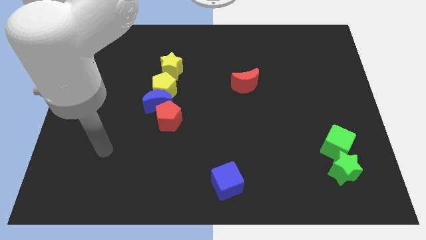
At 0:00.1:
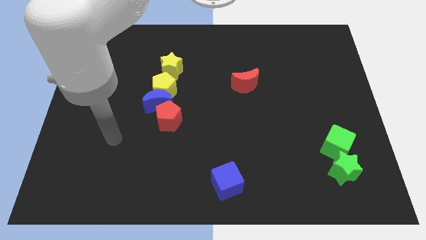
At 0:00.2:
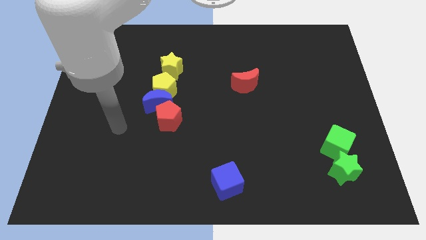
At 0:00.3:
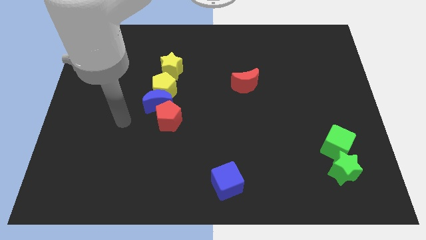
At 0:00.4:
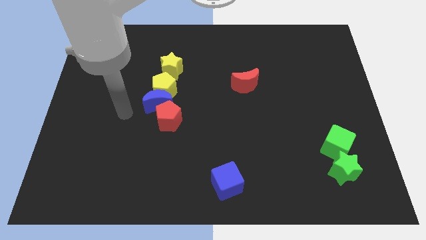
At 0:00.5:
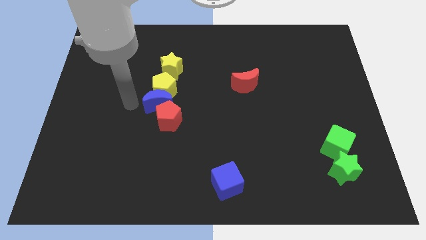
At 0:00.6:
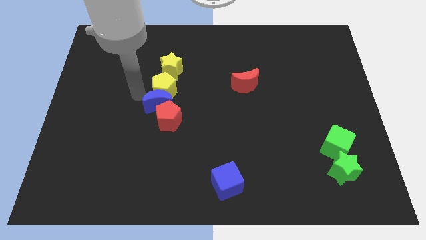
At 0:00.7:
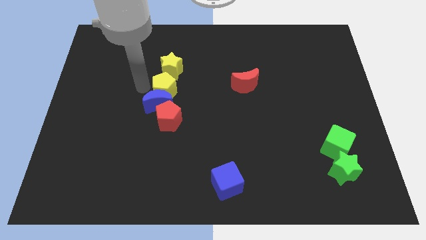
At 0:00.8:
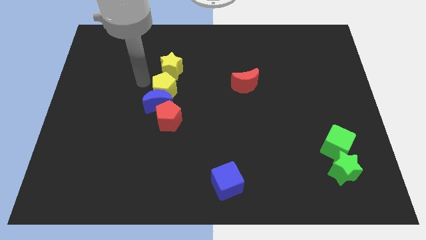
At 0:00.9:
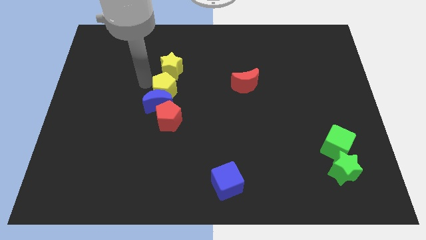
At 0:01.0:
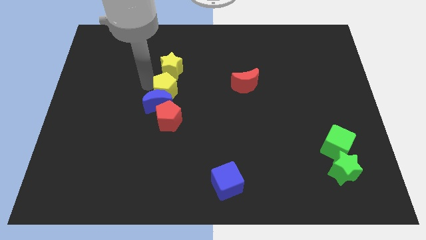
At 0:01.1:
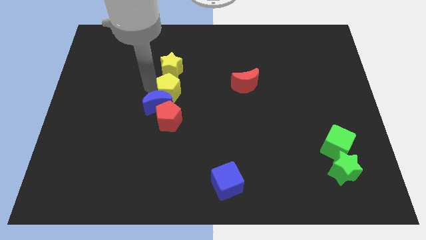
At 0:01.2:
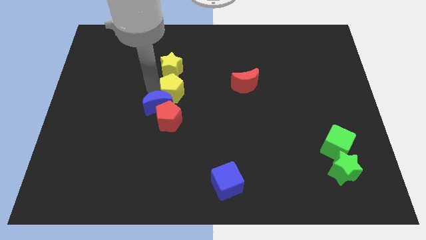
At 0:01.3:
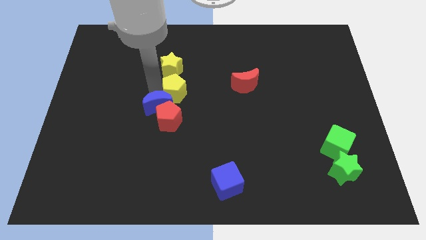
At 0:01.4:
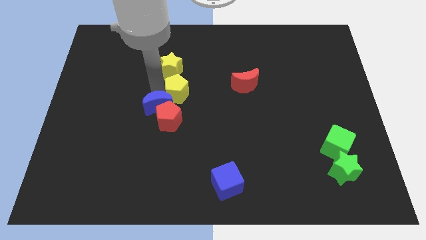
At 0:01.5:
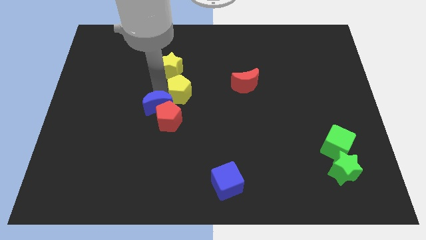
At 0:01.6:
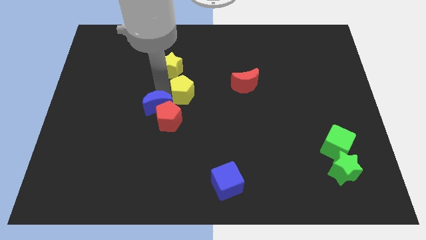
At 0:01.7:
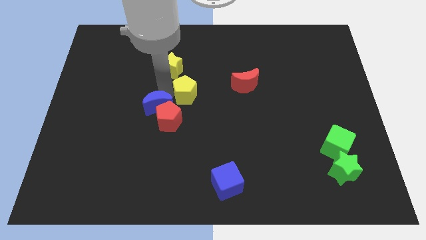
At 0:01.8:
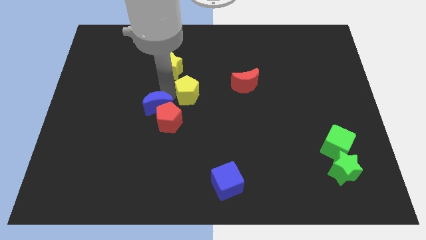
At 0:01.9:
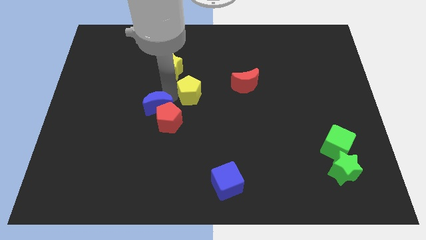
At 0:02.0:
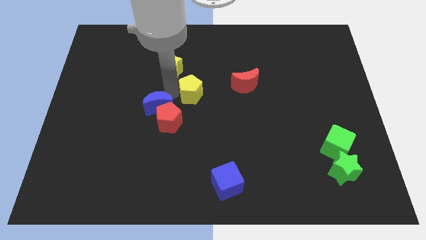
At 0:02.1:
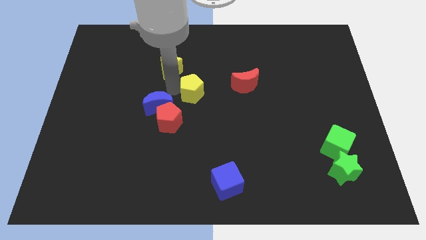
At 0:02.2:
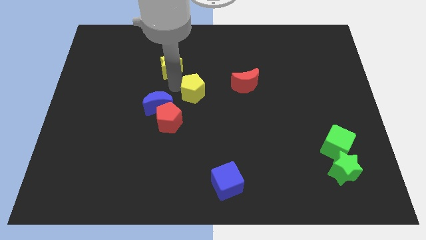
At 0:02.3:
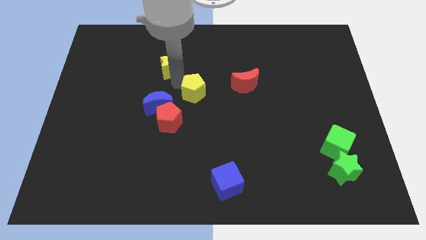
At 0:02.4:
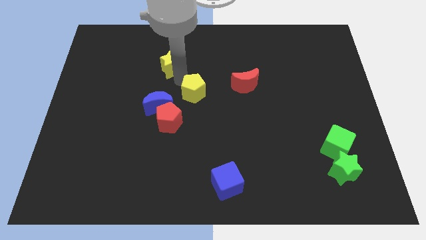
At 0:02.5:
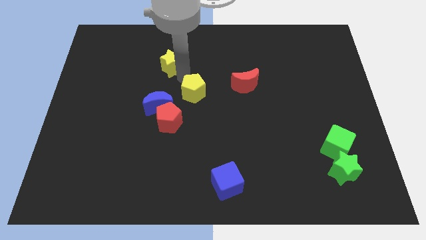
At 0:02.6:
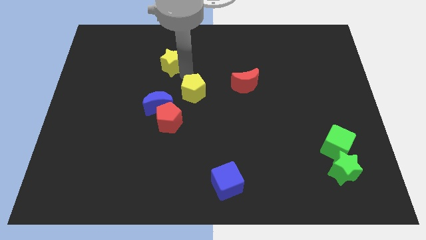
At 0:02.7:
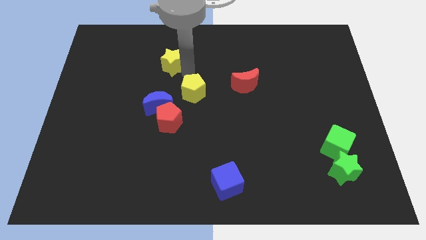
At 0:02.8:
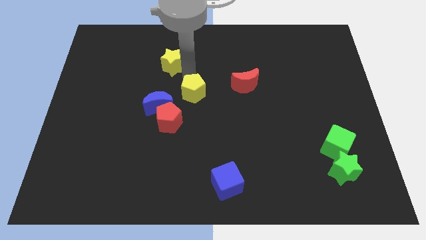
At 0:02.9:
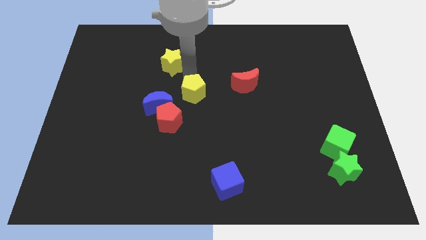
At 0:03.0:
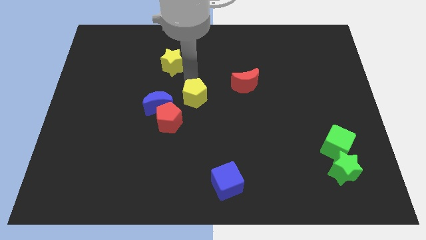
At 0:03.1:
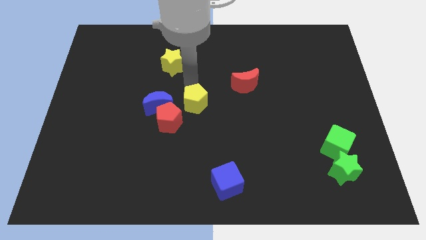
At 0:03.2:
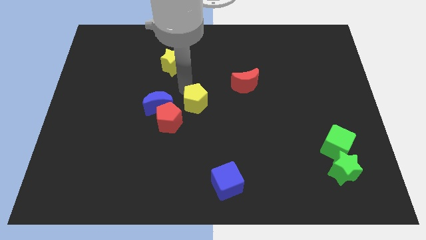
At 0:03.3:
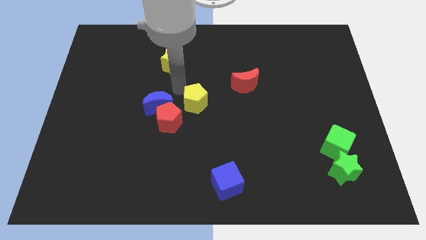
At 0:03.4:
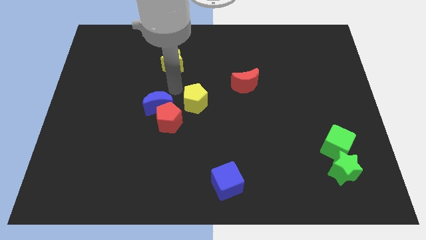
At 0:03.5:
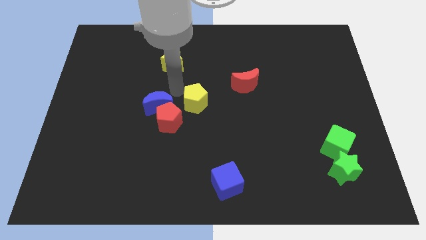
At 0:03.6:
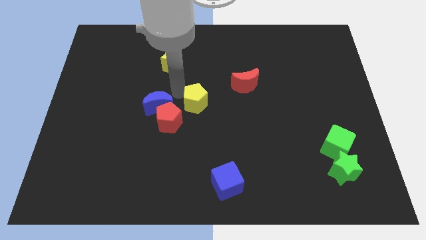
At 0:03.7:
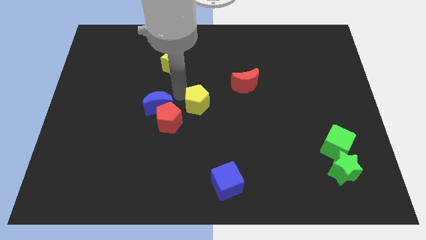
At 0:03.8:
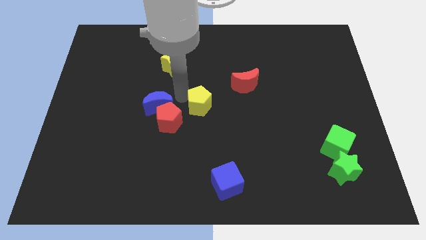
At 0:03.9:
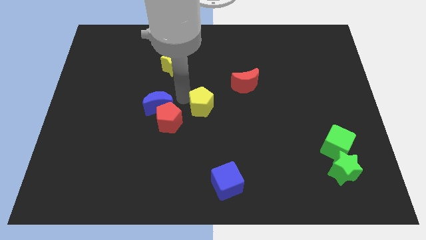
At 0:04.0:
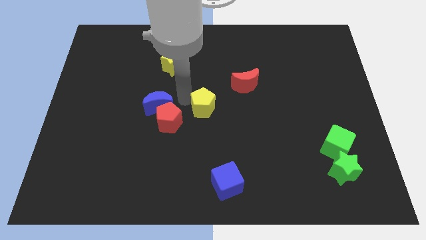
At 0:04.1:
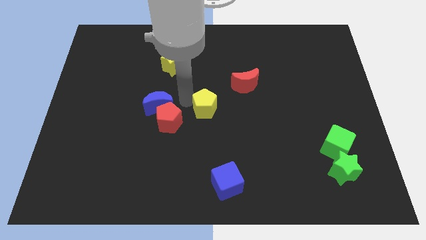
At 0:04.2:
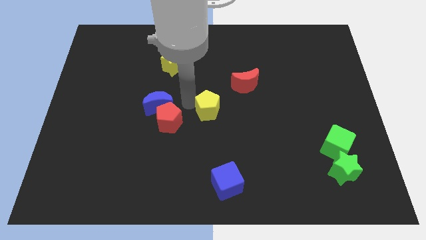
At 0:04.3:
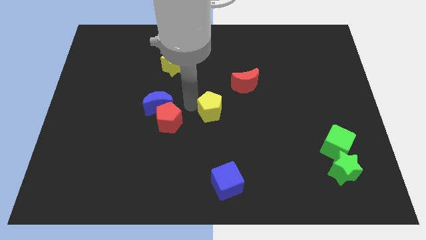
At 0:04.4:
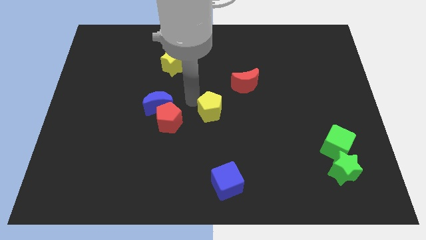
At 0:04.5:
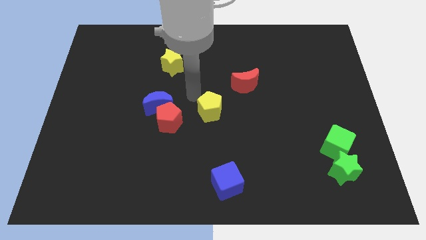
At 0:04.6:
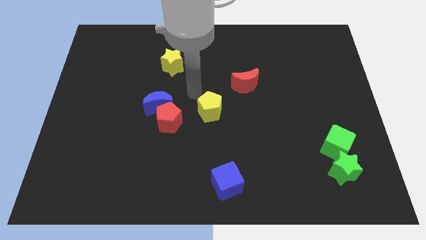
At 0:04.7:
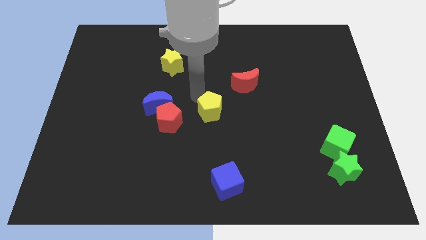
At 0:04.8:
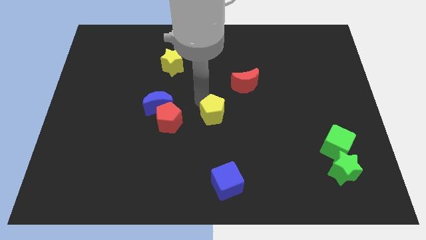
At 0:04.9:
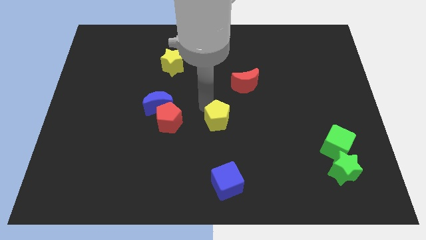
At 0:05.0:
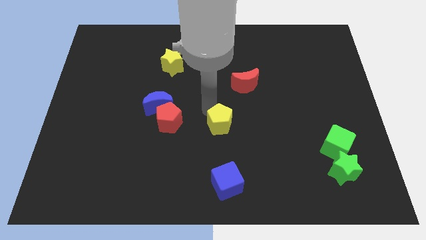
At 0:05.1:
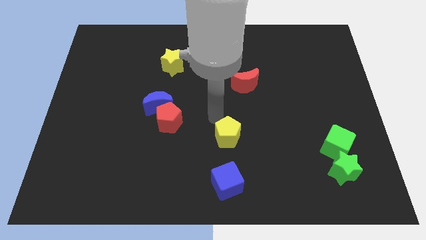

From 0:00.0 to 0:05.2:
move the yellow pentagon diagonally downwards and right

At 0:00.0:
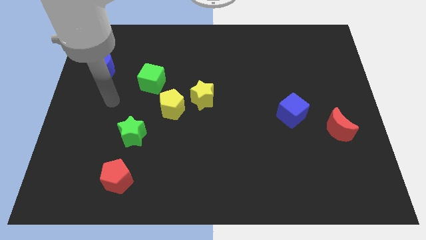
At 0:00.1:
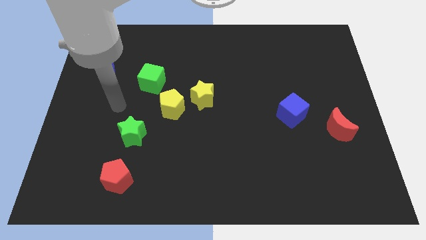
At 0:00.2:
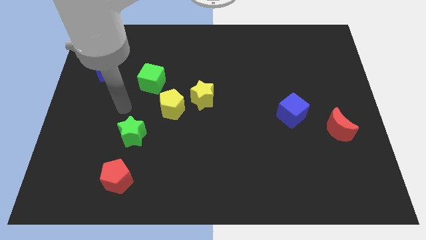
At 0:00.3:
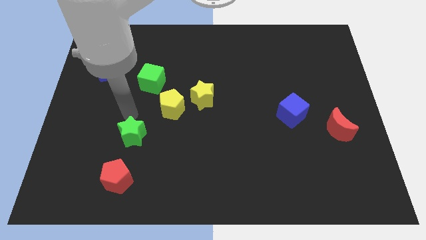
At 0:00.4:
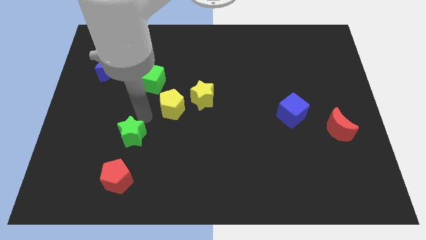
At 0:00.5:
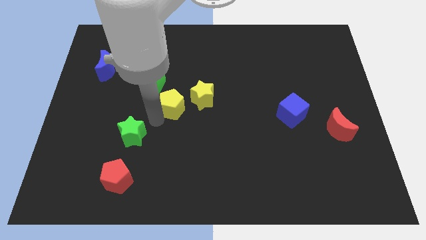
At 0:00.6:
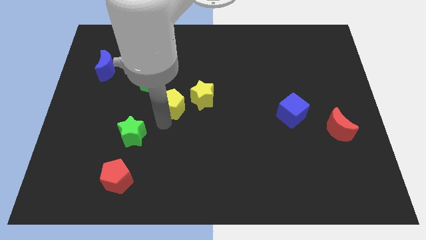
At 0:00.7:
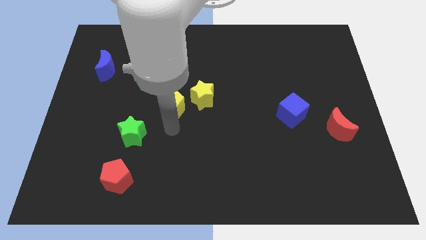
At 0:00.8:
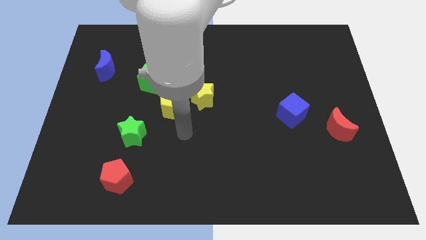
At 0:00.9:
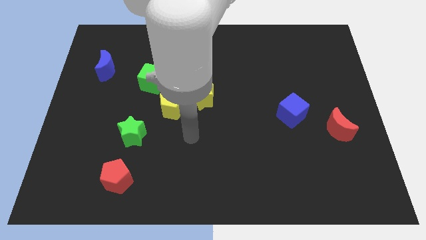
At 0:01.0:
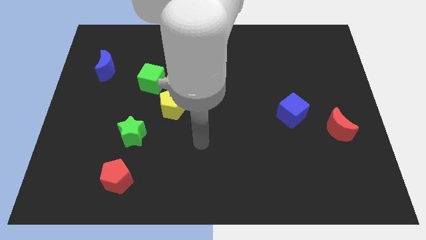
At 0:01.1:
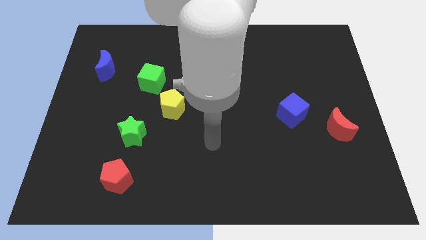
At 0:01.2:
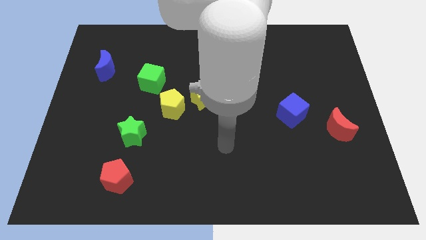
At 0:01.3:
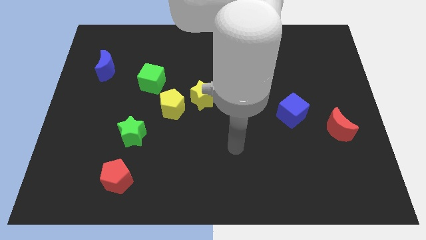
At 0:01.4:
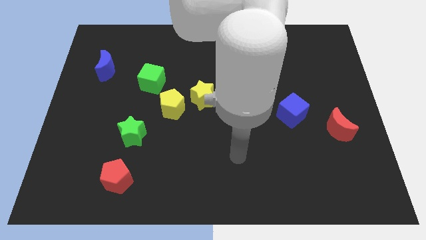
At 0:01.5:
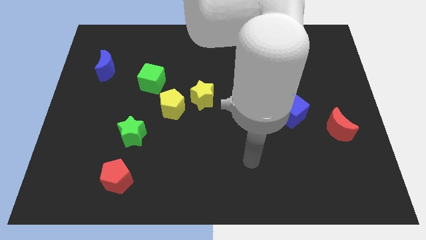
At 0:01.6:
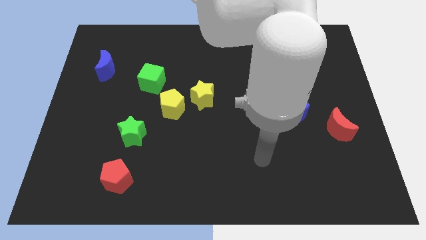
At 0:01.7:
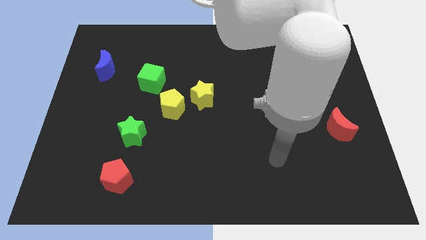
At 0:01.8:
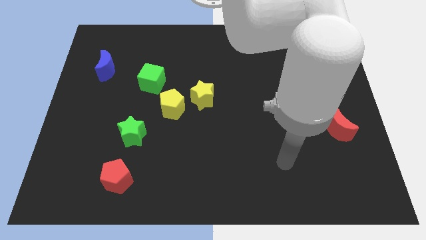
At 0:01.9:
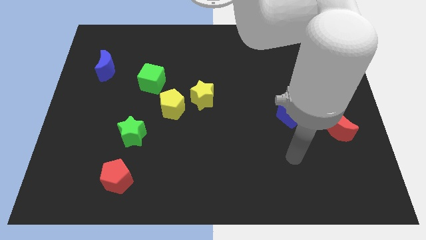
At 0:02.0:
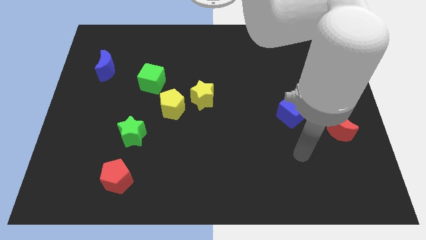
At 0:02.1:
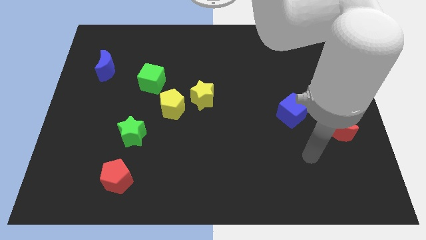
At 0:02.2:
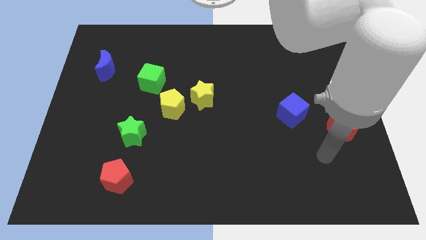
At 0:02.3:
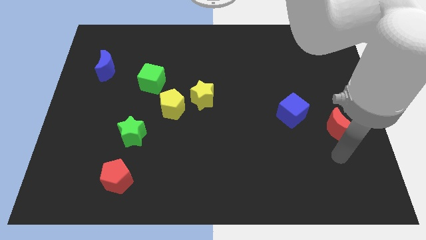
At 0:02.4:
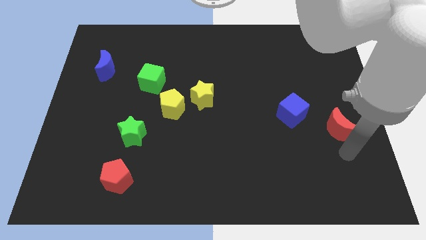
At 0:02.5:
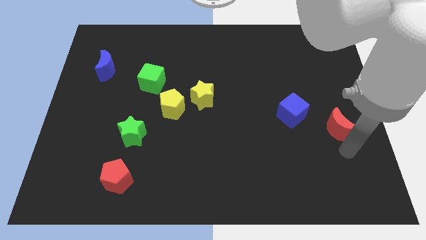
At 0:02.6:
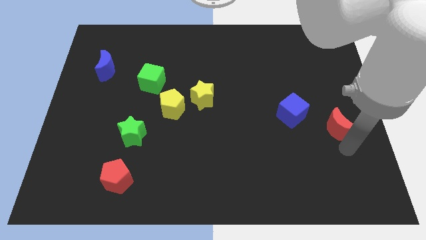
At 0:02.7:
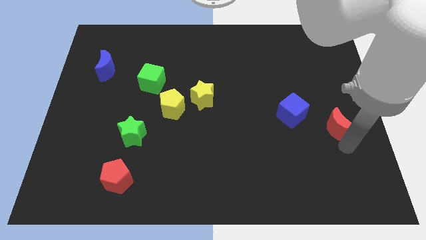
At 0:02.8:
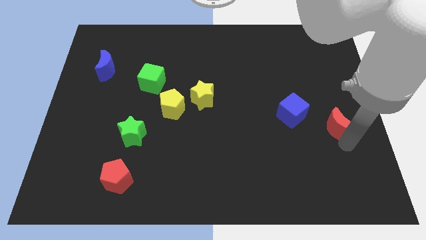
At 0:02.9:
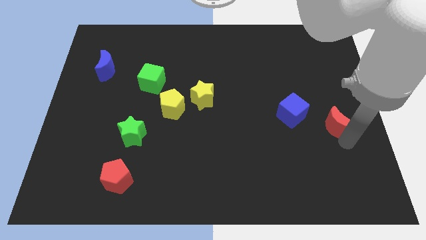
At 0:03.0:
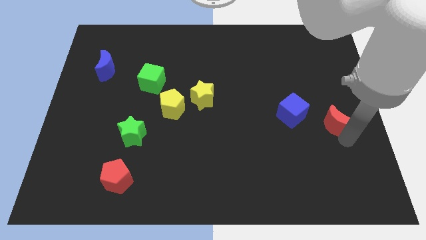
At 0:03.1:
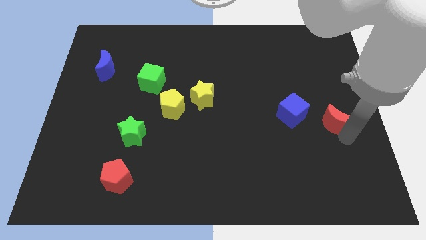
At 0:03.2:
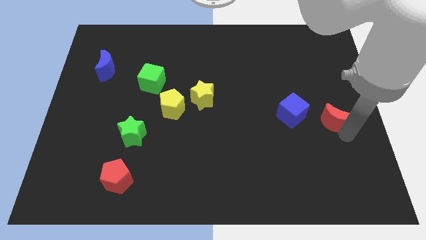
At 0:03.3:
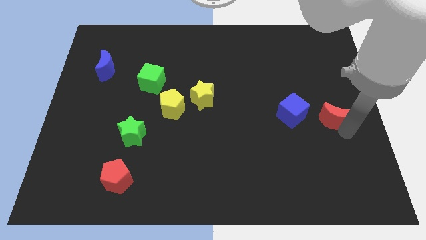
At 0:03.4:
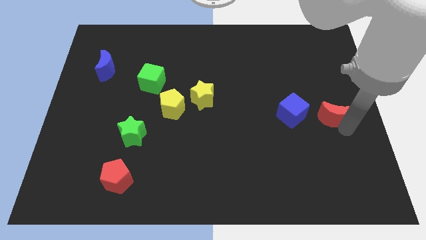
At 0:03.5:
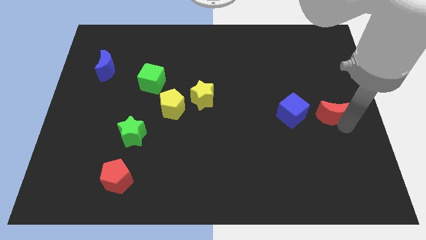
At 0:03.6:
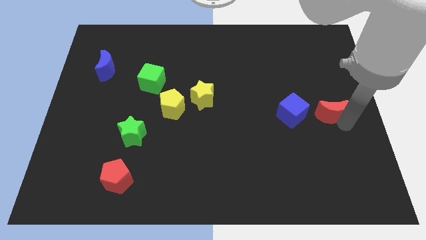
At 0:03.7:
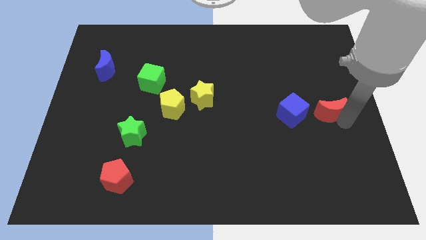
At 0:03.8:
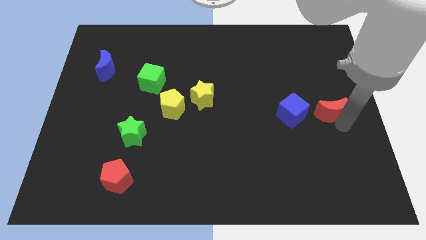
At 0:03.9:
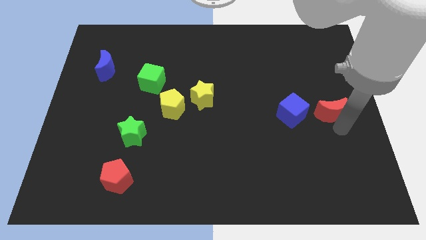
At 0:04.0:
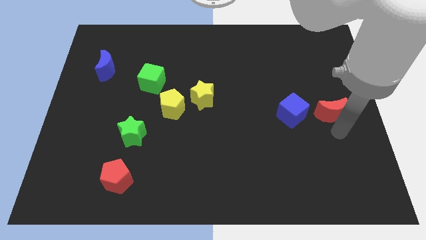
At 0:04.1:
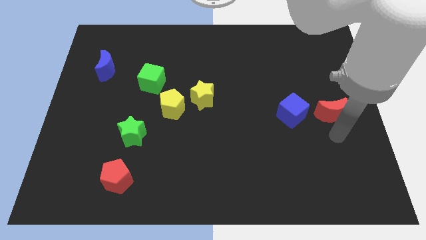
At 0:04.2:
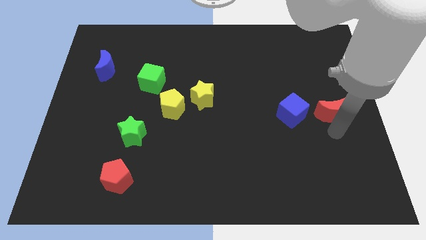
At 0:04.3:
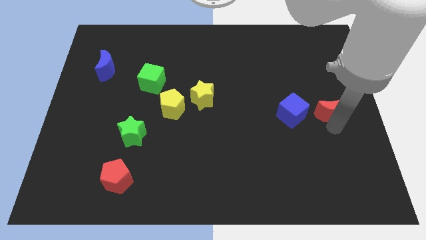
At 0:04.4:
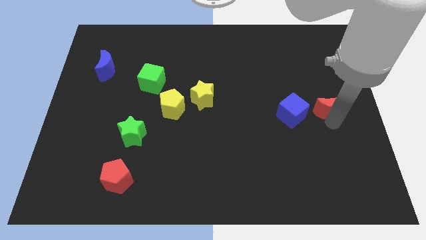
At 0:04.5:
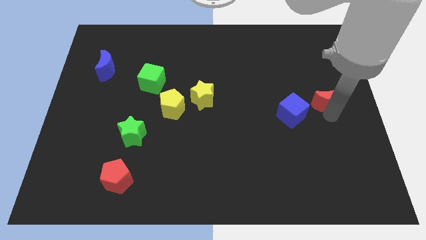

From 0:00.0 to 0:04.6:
slightly push the red moon upwards
